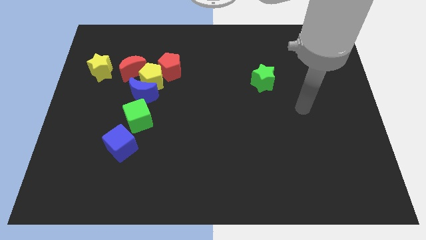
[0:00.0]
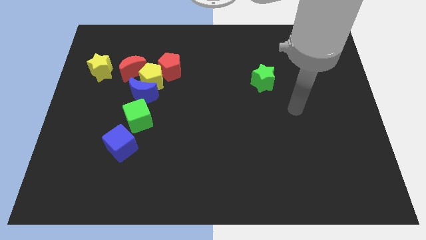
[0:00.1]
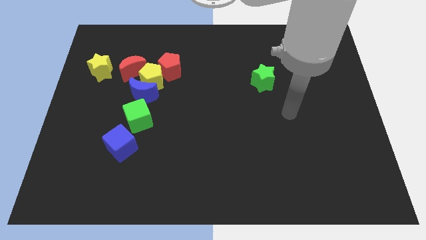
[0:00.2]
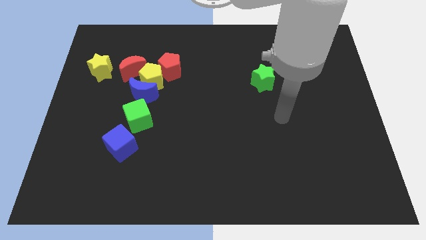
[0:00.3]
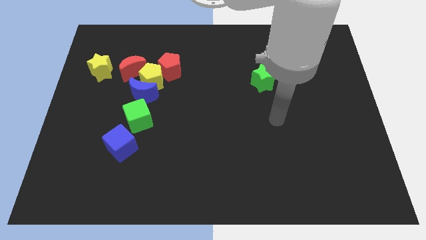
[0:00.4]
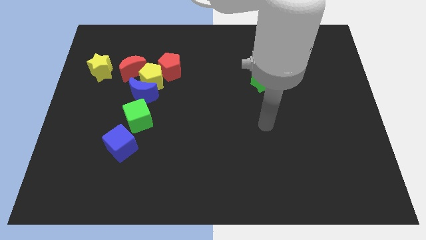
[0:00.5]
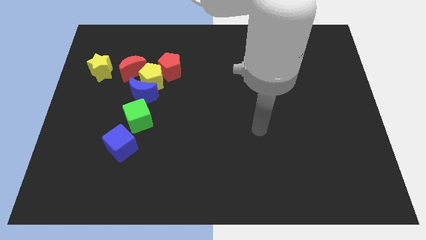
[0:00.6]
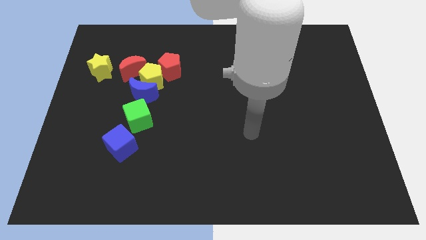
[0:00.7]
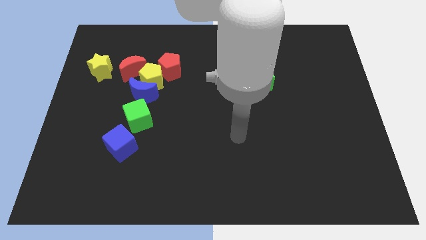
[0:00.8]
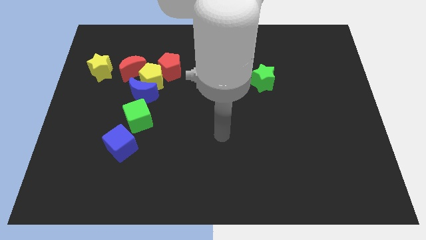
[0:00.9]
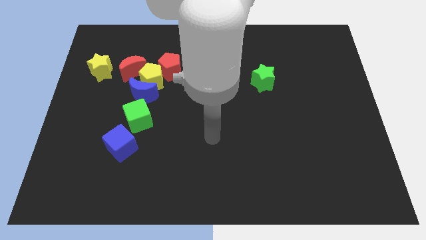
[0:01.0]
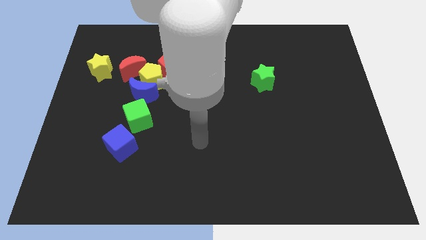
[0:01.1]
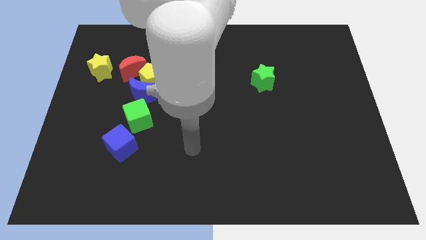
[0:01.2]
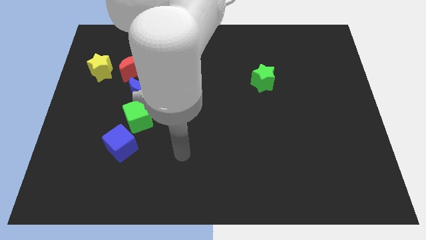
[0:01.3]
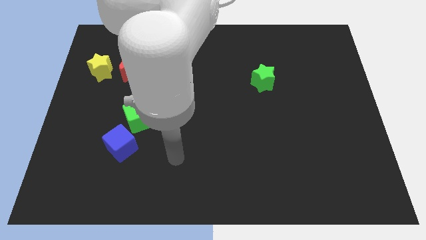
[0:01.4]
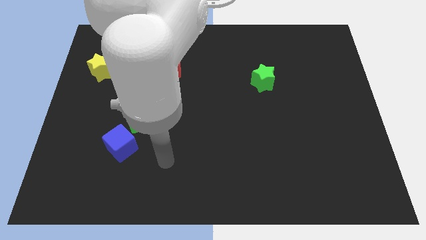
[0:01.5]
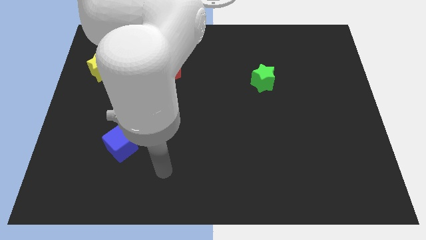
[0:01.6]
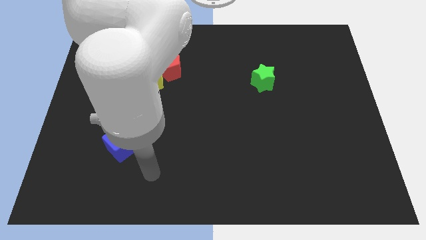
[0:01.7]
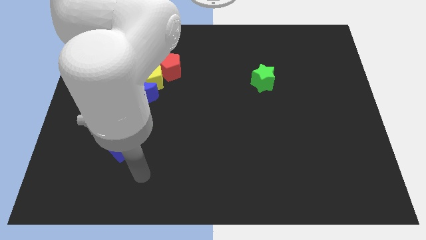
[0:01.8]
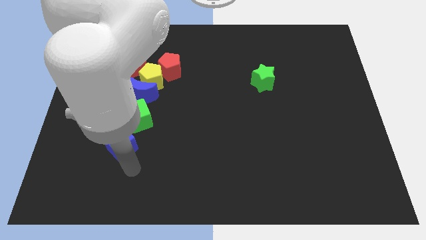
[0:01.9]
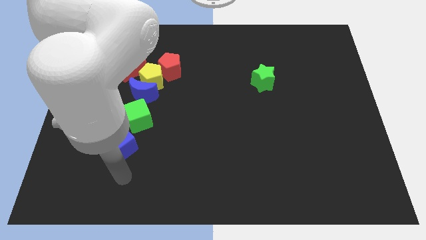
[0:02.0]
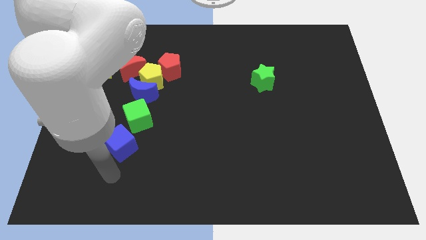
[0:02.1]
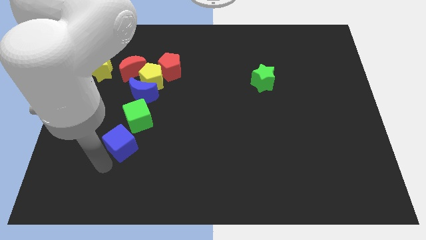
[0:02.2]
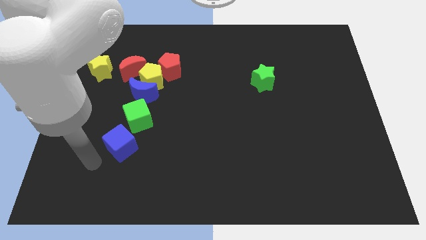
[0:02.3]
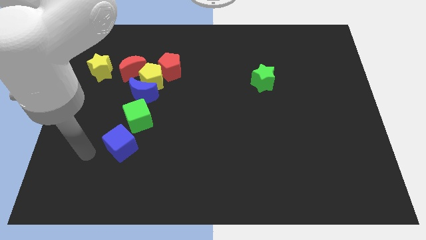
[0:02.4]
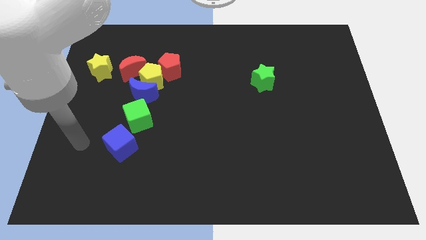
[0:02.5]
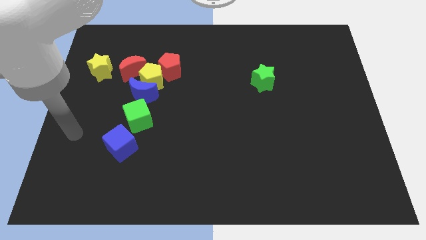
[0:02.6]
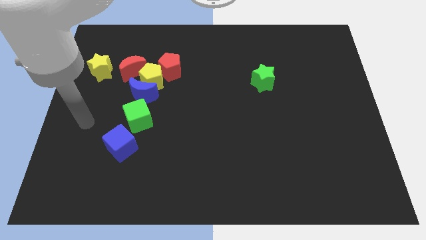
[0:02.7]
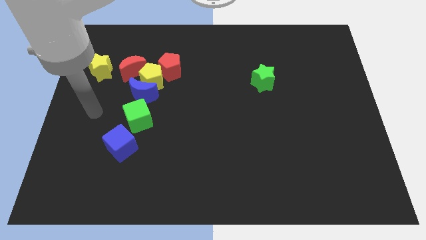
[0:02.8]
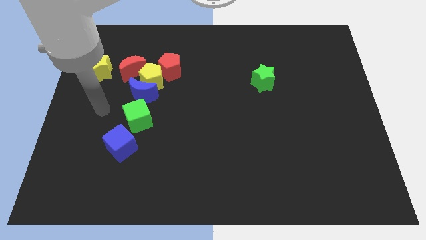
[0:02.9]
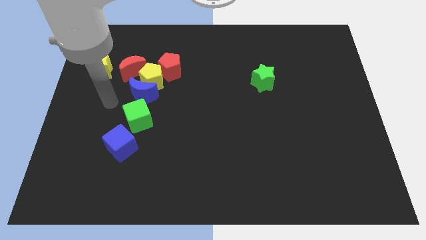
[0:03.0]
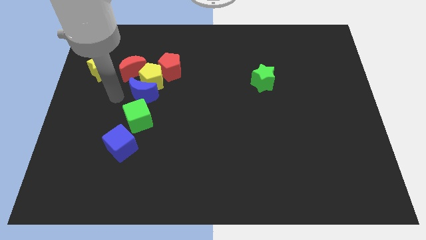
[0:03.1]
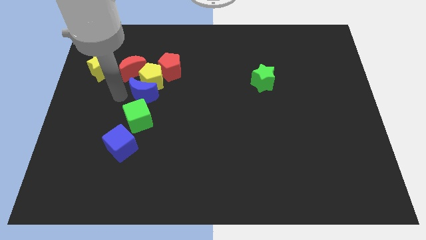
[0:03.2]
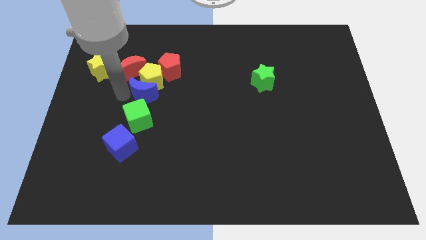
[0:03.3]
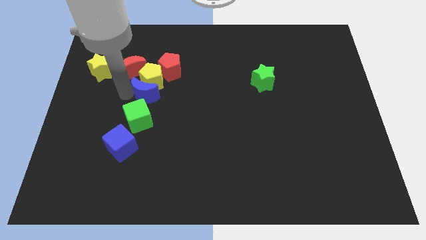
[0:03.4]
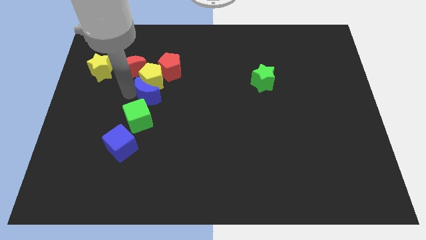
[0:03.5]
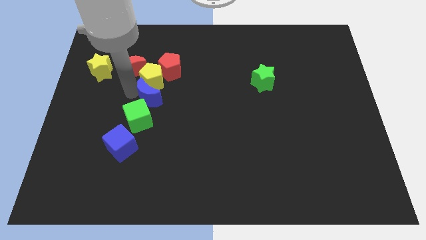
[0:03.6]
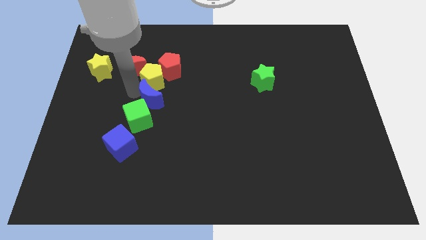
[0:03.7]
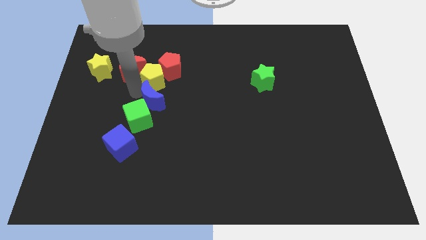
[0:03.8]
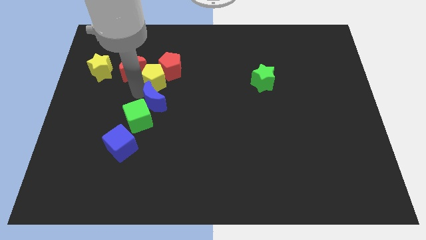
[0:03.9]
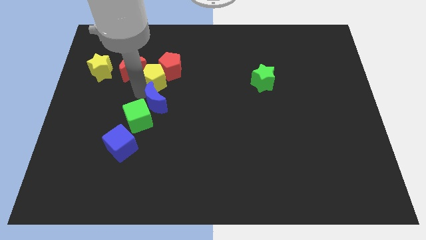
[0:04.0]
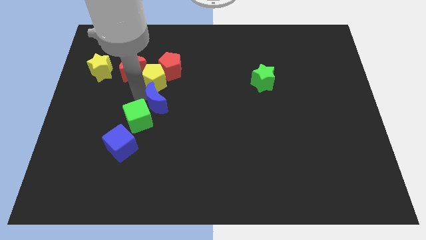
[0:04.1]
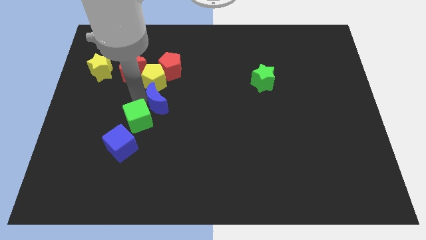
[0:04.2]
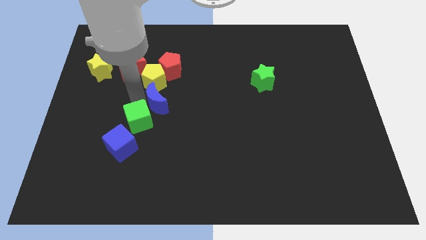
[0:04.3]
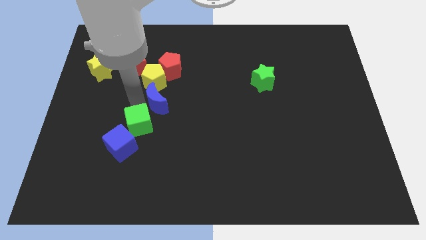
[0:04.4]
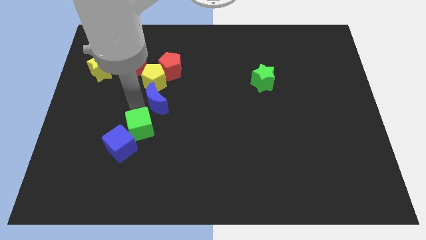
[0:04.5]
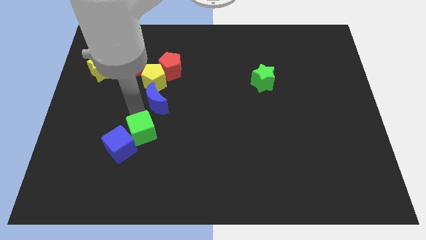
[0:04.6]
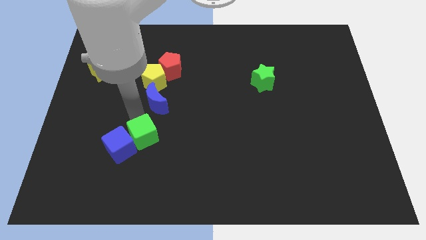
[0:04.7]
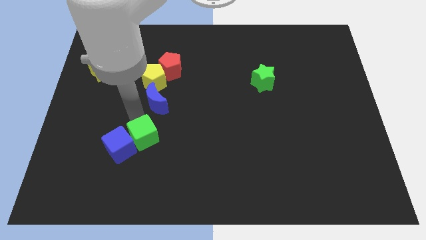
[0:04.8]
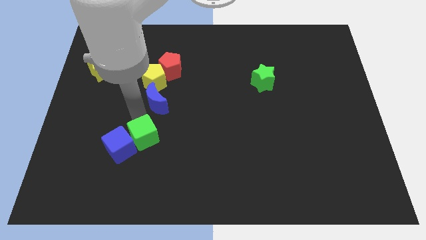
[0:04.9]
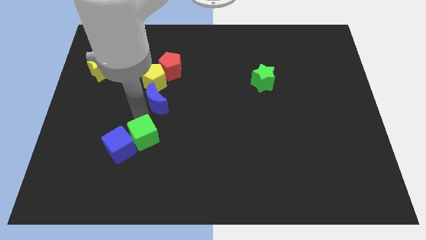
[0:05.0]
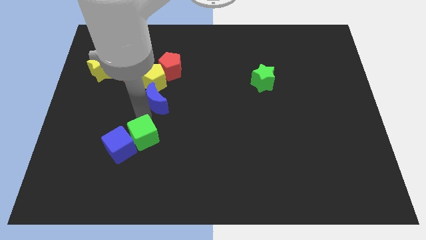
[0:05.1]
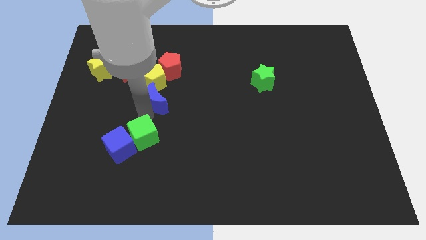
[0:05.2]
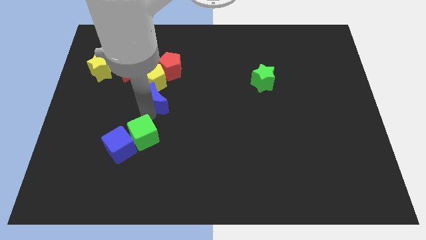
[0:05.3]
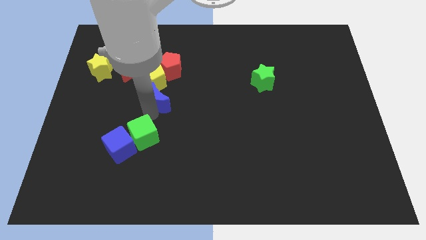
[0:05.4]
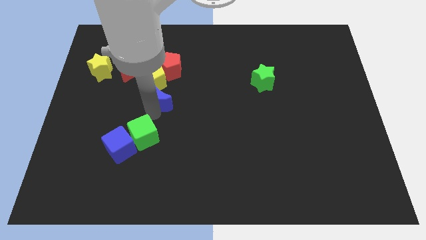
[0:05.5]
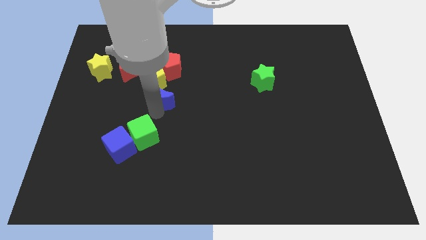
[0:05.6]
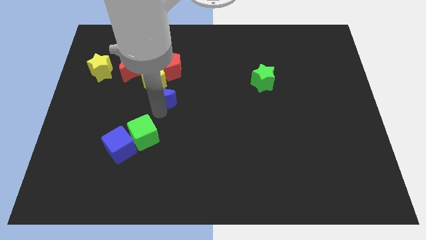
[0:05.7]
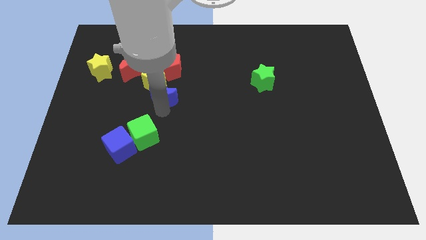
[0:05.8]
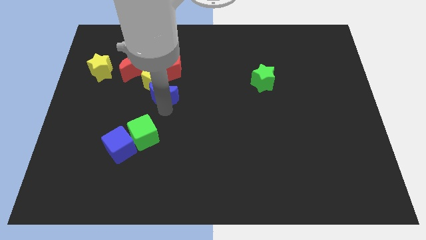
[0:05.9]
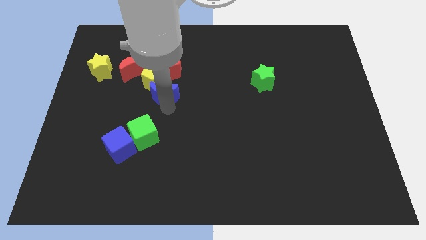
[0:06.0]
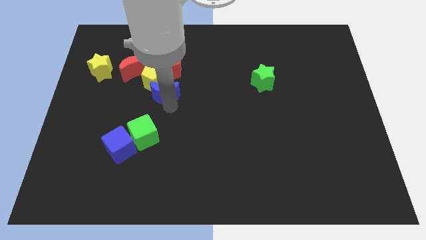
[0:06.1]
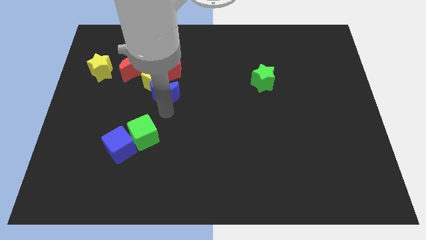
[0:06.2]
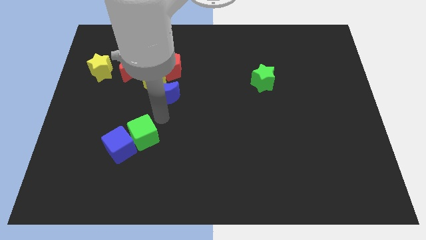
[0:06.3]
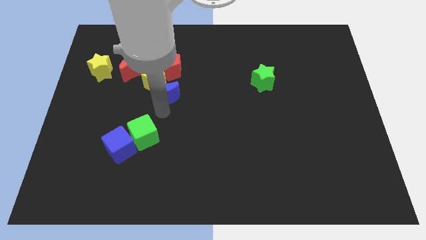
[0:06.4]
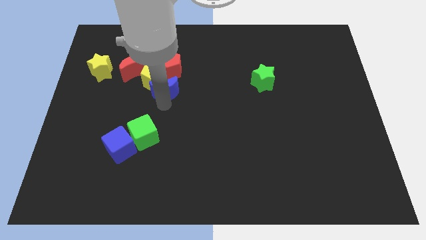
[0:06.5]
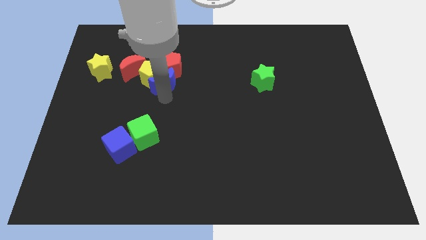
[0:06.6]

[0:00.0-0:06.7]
slide the blue moon to the red pentagon
